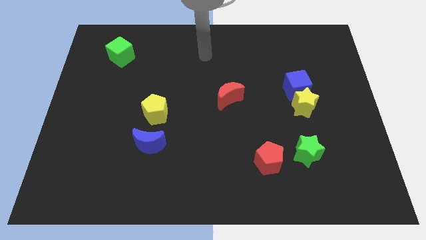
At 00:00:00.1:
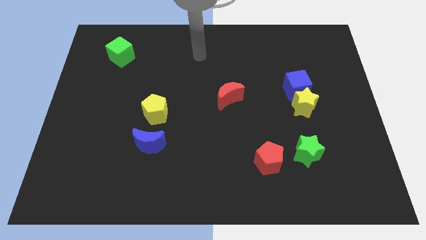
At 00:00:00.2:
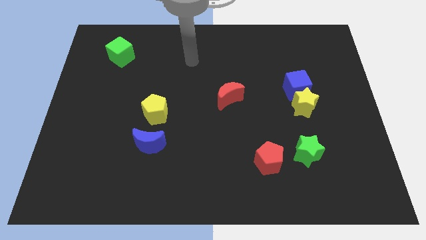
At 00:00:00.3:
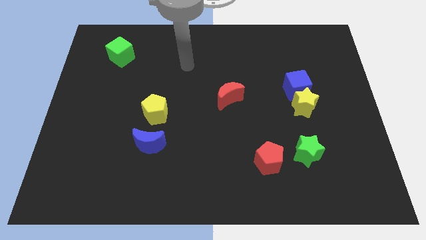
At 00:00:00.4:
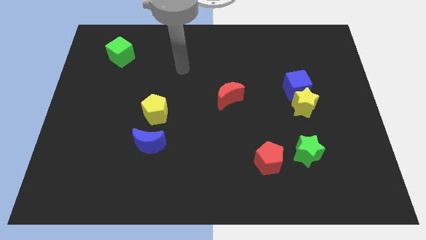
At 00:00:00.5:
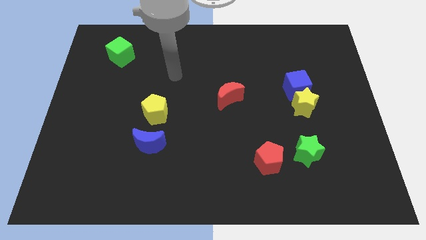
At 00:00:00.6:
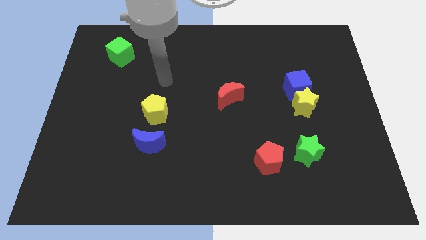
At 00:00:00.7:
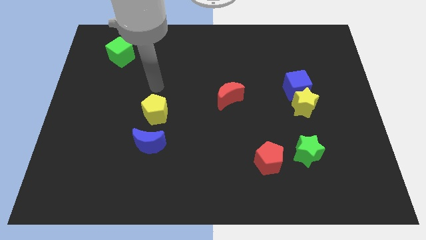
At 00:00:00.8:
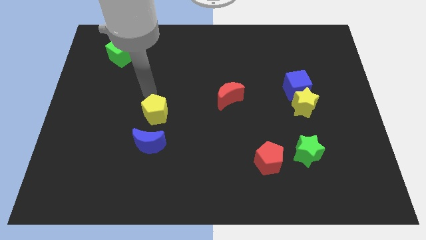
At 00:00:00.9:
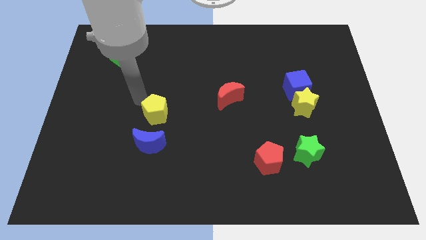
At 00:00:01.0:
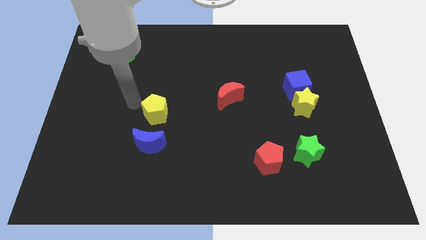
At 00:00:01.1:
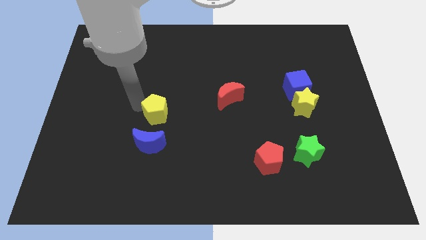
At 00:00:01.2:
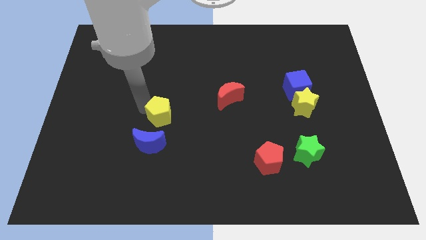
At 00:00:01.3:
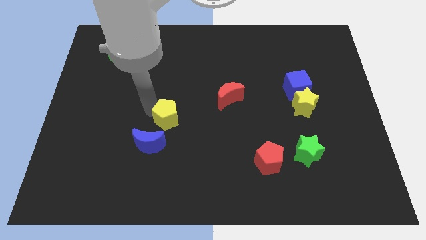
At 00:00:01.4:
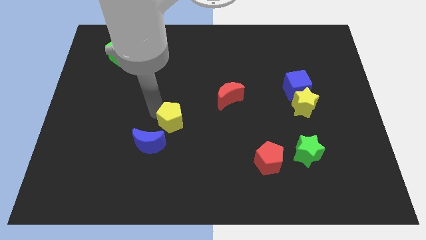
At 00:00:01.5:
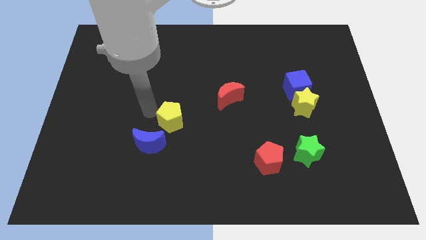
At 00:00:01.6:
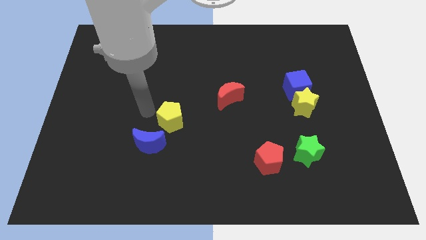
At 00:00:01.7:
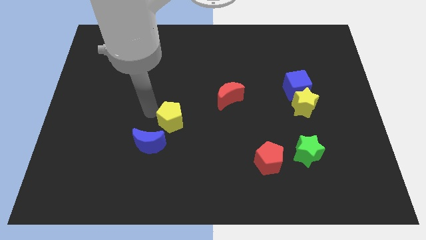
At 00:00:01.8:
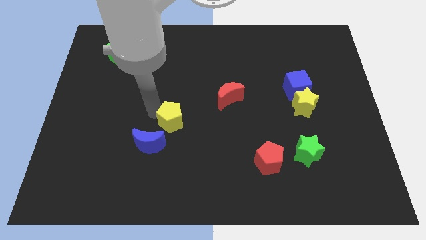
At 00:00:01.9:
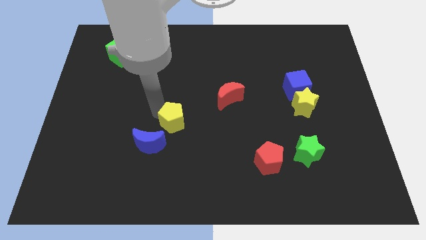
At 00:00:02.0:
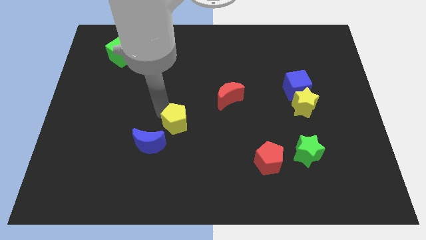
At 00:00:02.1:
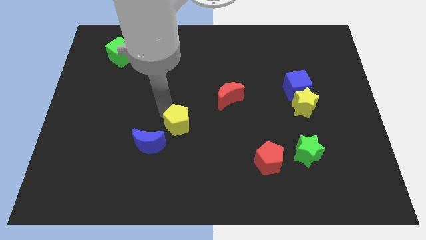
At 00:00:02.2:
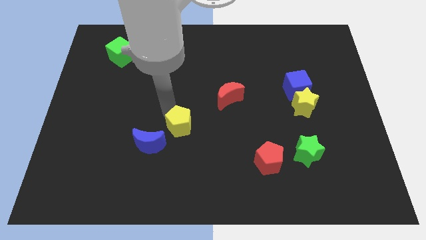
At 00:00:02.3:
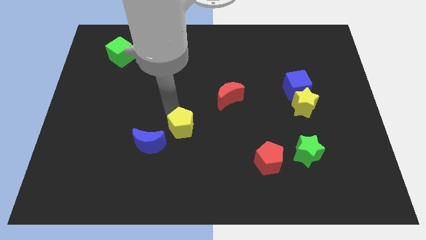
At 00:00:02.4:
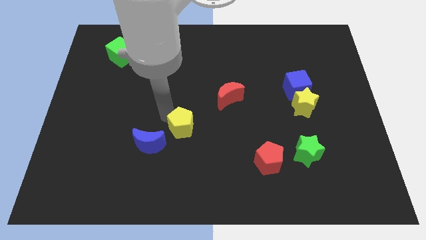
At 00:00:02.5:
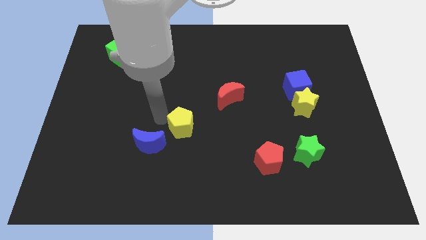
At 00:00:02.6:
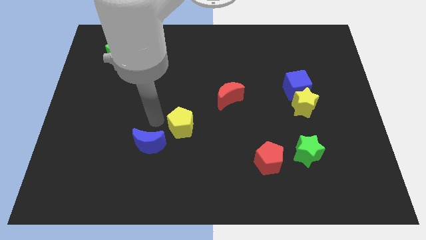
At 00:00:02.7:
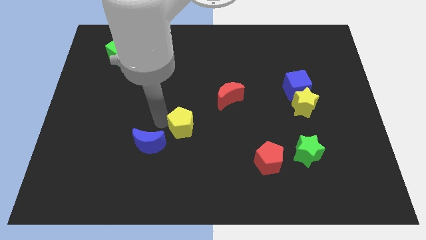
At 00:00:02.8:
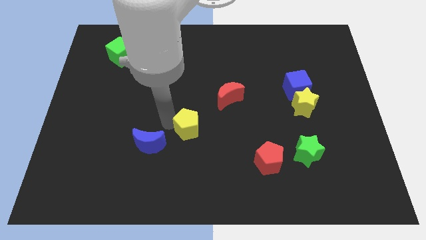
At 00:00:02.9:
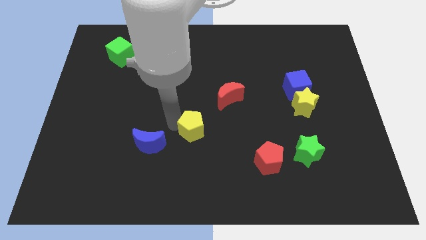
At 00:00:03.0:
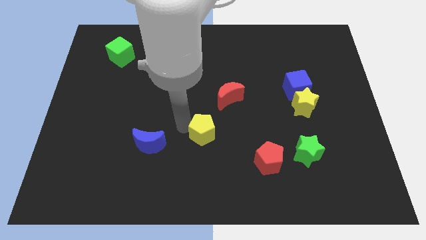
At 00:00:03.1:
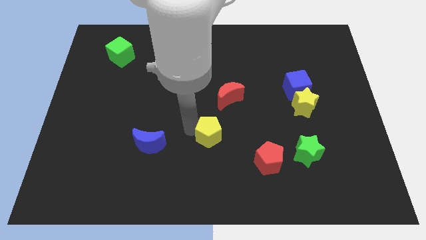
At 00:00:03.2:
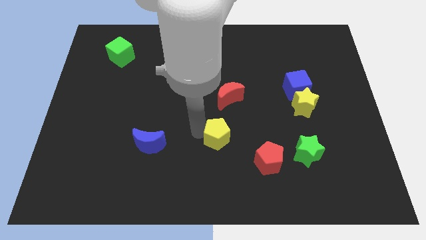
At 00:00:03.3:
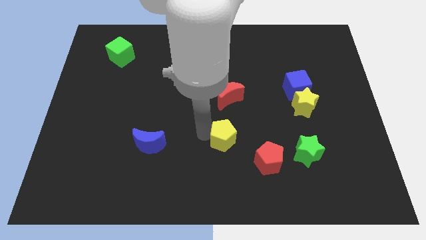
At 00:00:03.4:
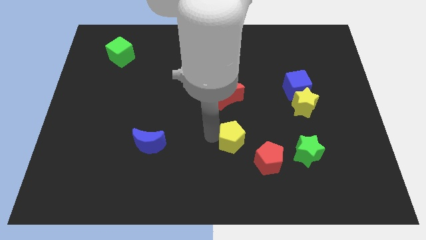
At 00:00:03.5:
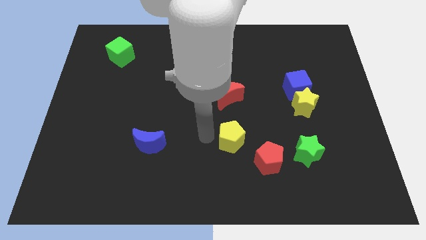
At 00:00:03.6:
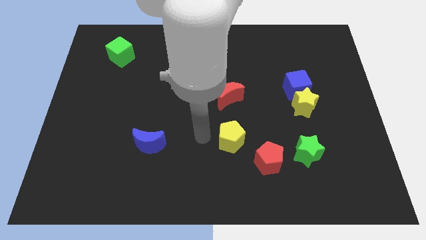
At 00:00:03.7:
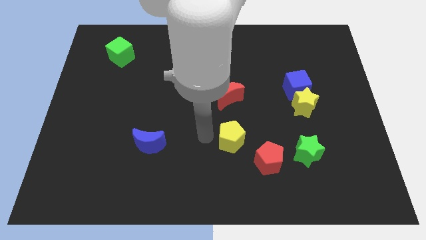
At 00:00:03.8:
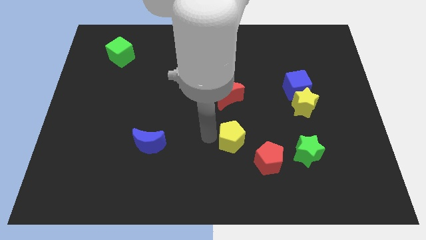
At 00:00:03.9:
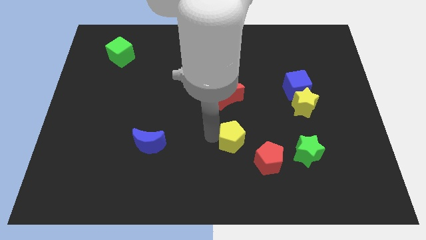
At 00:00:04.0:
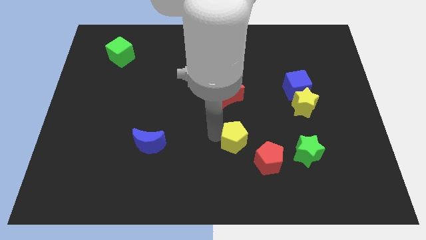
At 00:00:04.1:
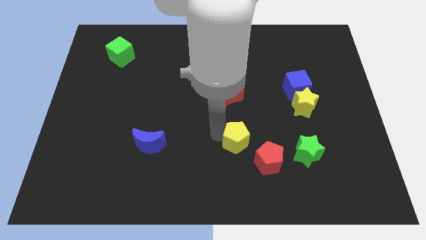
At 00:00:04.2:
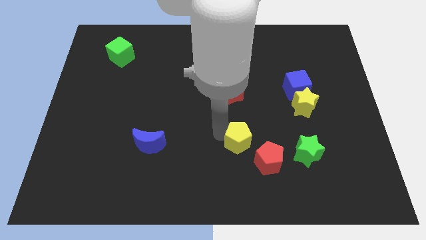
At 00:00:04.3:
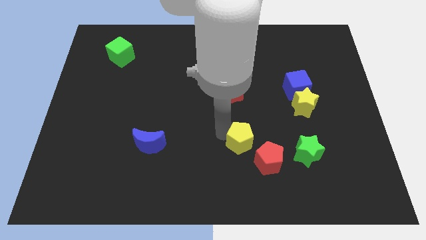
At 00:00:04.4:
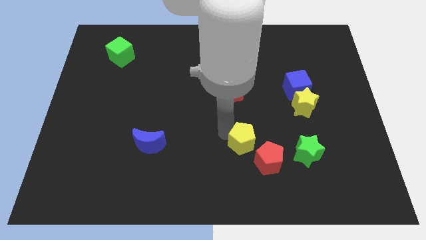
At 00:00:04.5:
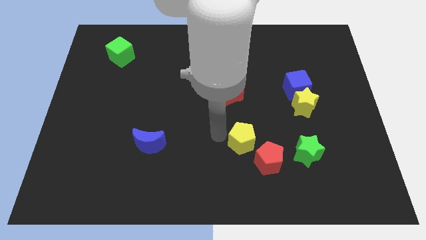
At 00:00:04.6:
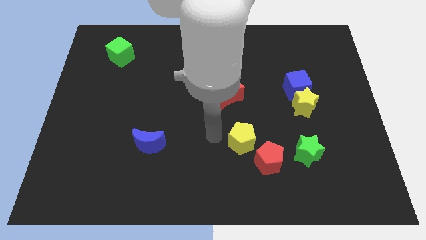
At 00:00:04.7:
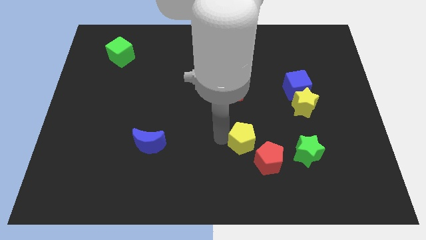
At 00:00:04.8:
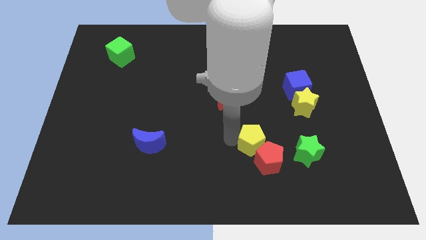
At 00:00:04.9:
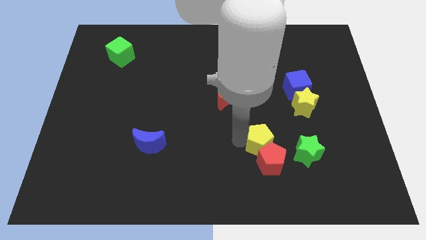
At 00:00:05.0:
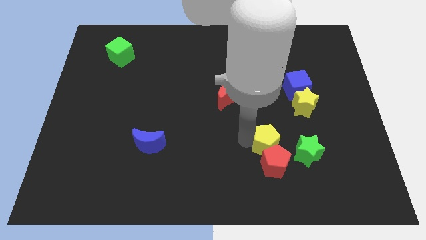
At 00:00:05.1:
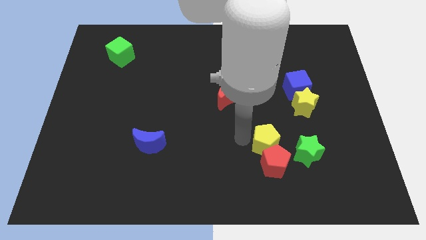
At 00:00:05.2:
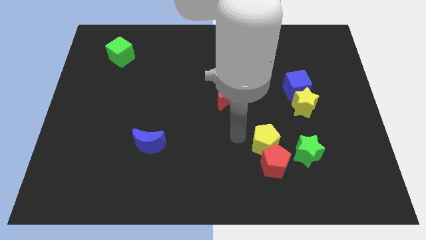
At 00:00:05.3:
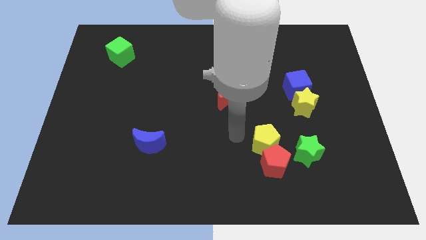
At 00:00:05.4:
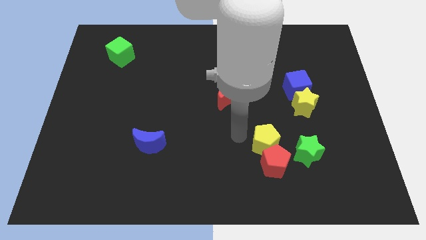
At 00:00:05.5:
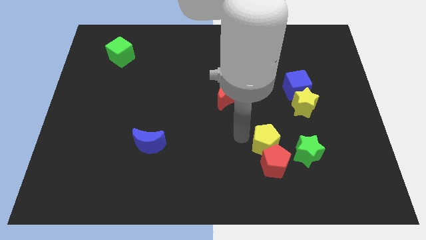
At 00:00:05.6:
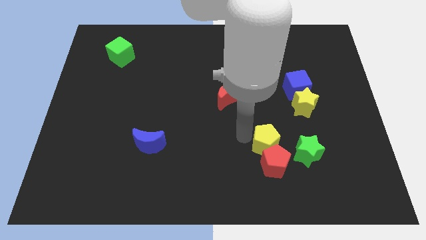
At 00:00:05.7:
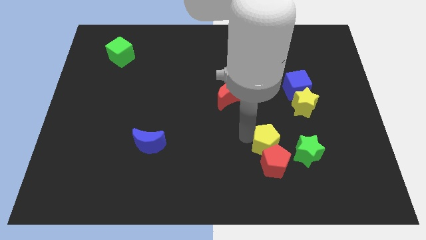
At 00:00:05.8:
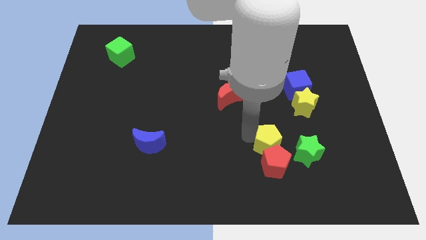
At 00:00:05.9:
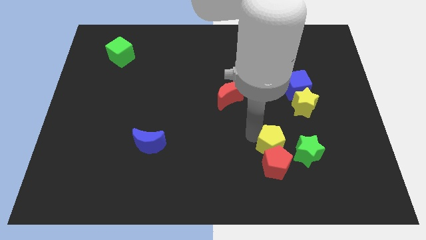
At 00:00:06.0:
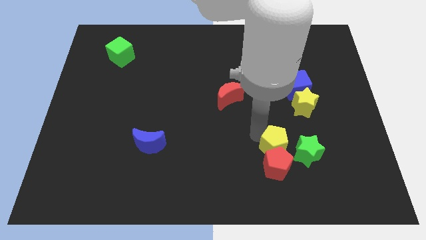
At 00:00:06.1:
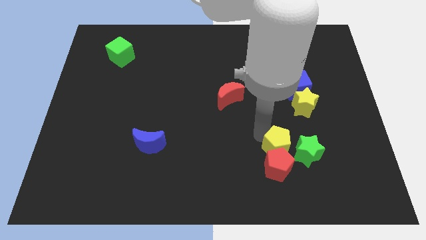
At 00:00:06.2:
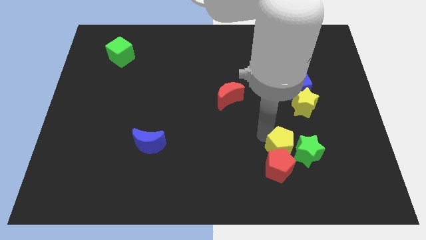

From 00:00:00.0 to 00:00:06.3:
slide the yellow pentagon to the green star

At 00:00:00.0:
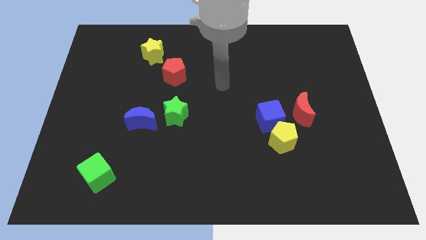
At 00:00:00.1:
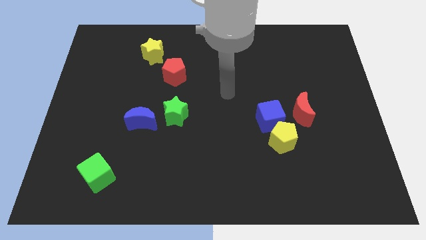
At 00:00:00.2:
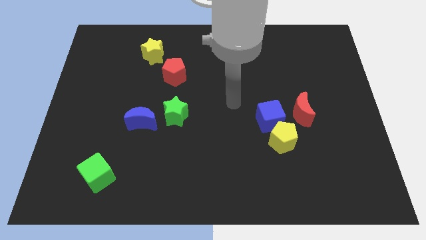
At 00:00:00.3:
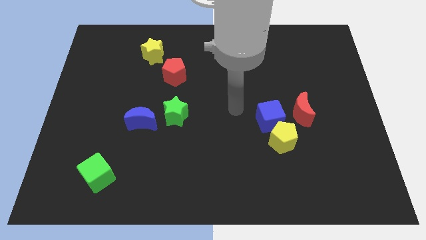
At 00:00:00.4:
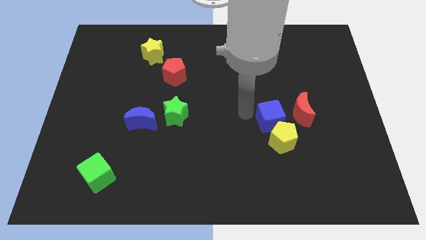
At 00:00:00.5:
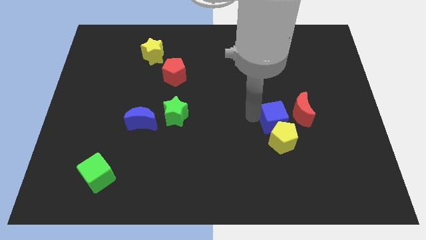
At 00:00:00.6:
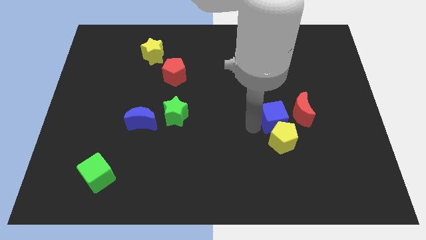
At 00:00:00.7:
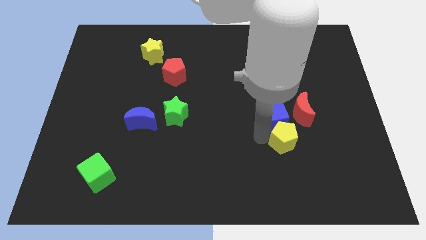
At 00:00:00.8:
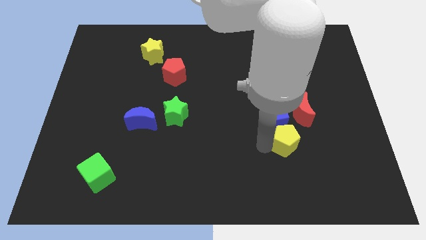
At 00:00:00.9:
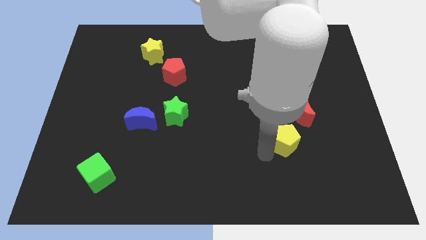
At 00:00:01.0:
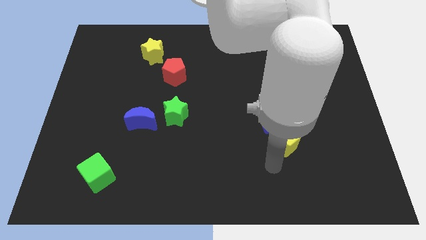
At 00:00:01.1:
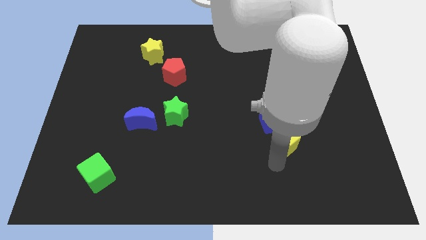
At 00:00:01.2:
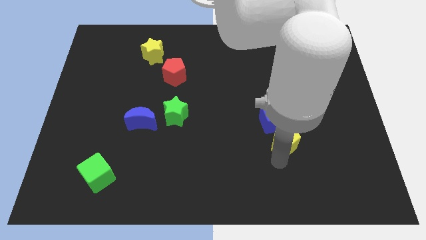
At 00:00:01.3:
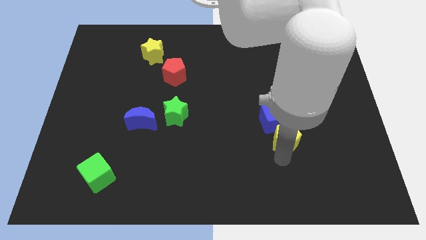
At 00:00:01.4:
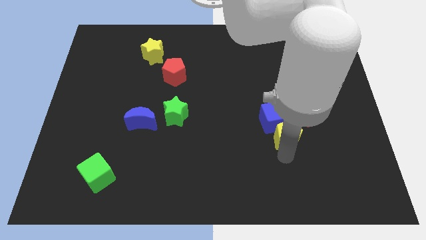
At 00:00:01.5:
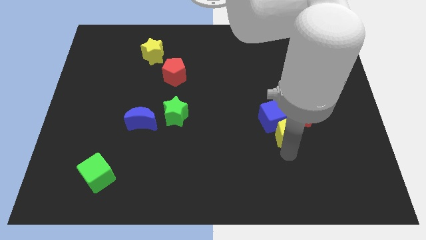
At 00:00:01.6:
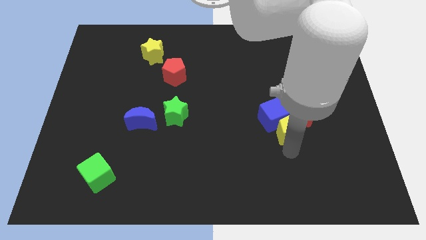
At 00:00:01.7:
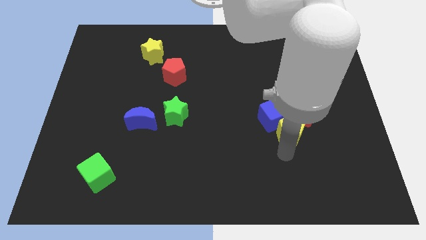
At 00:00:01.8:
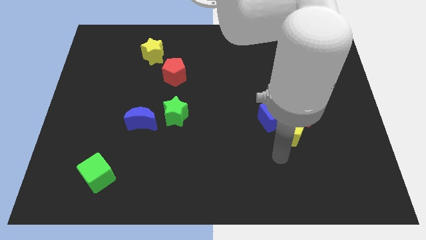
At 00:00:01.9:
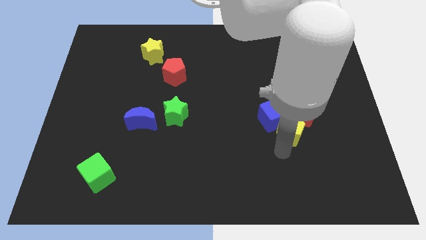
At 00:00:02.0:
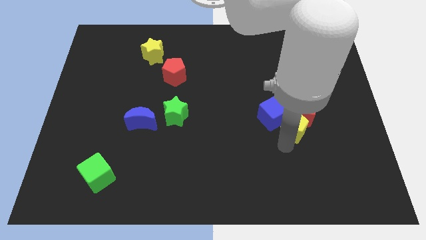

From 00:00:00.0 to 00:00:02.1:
slide the yellow pentagon towards the red moon
